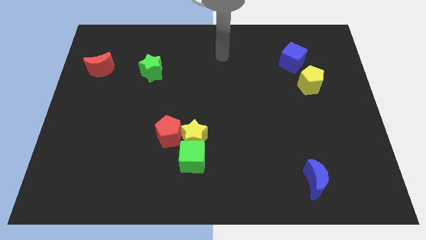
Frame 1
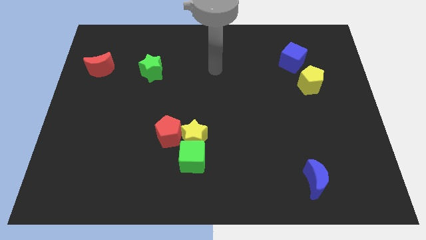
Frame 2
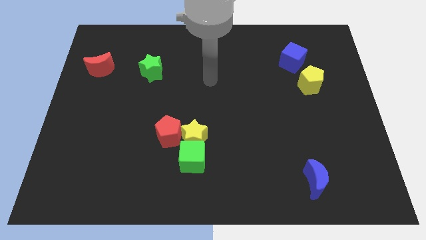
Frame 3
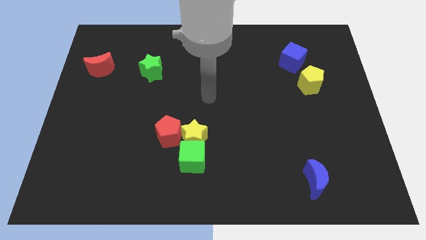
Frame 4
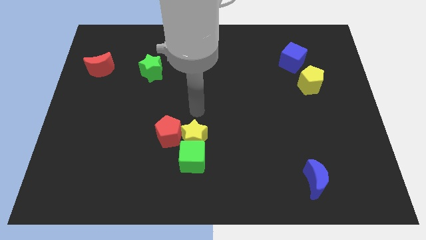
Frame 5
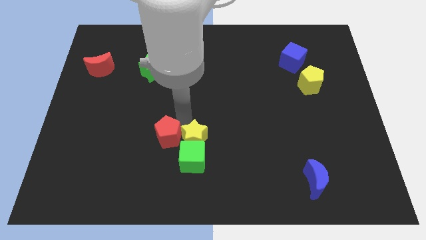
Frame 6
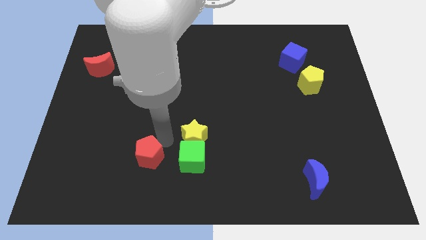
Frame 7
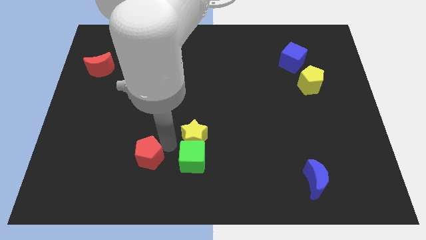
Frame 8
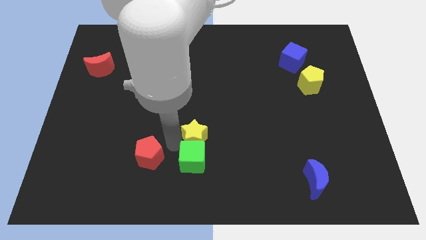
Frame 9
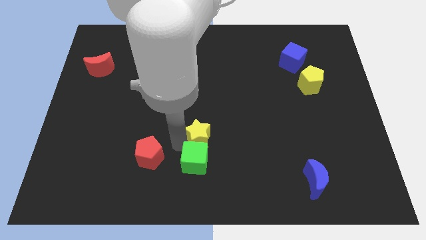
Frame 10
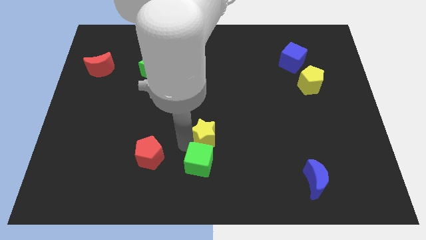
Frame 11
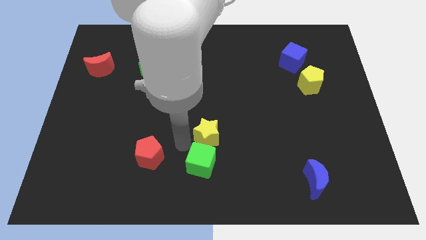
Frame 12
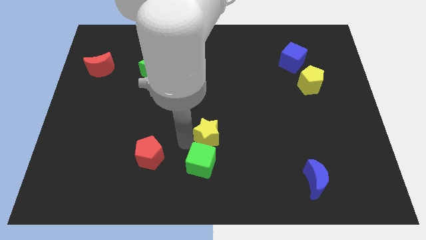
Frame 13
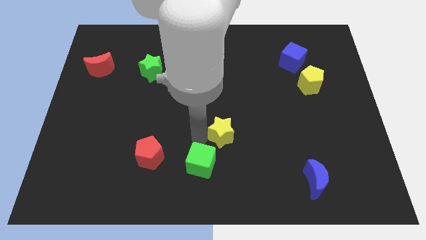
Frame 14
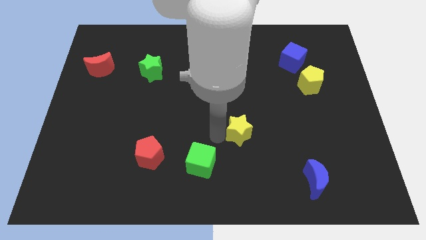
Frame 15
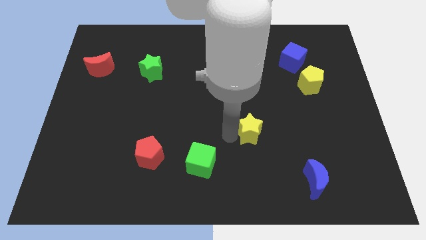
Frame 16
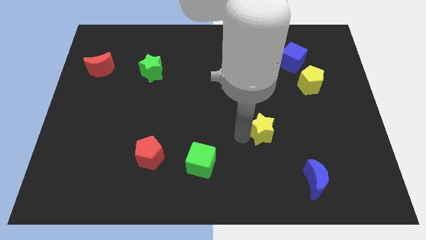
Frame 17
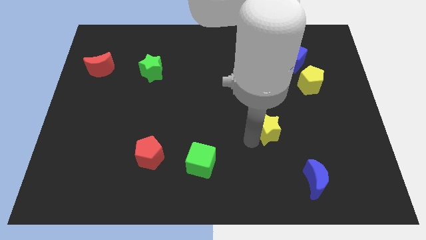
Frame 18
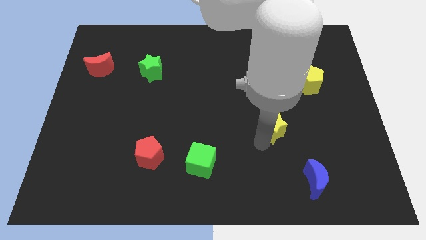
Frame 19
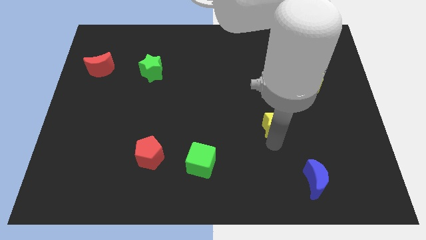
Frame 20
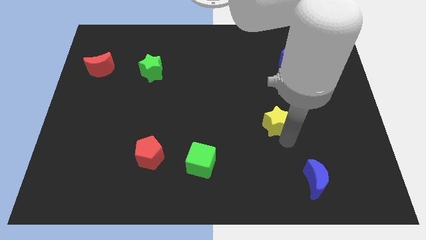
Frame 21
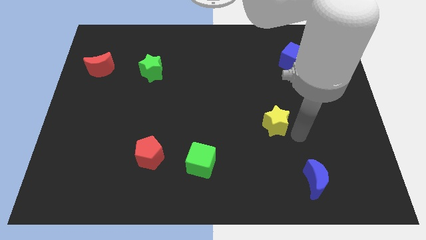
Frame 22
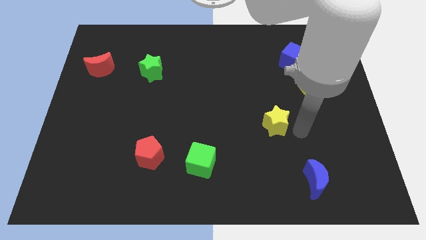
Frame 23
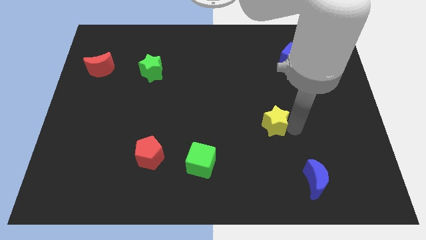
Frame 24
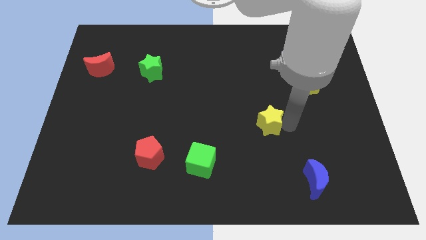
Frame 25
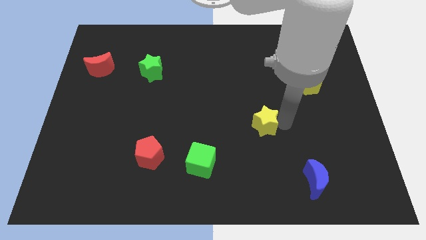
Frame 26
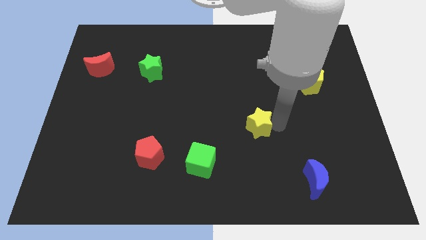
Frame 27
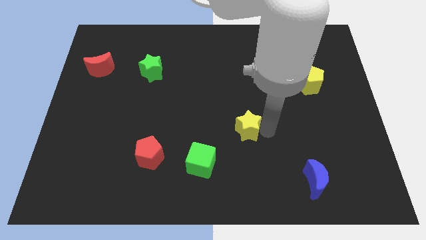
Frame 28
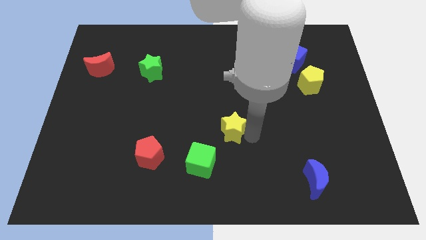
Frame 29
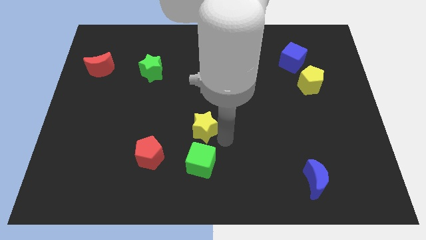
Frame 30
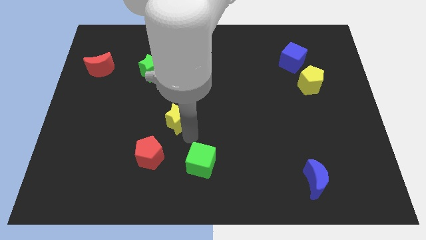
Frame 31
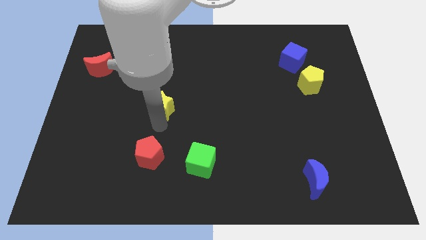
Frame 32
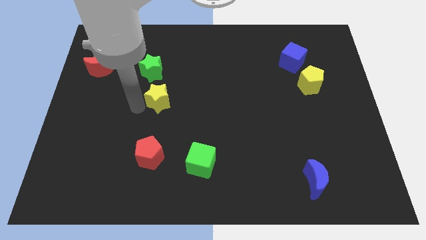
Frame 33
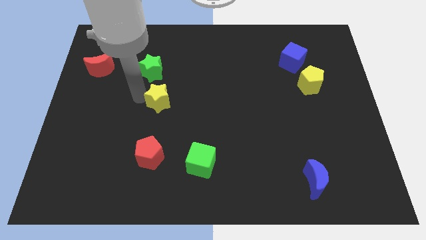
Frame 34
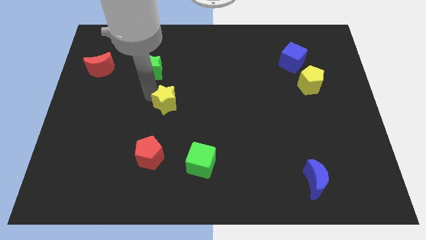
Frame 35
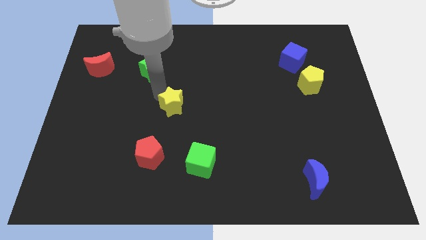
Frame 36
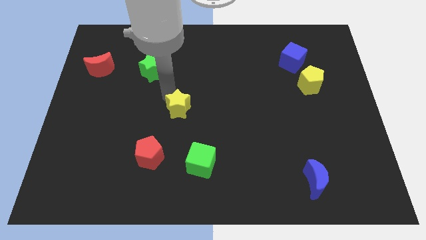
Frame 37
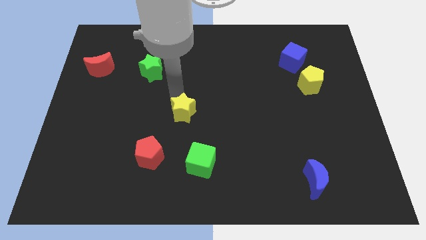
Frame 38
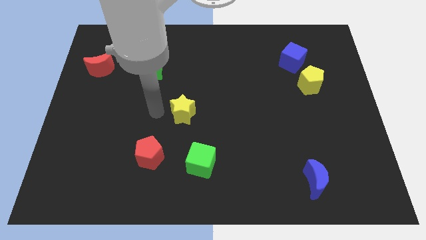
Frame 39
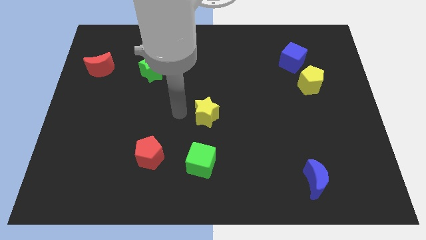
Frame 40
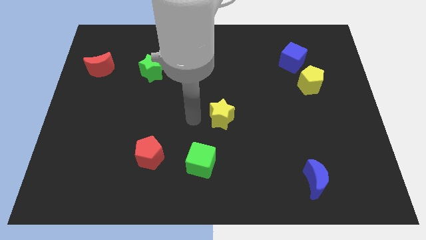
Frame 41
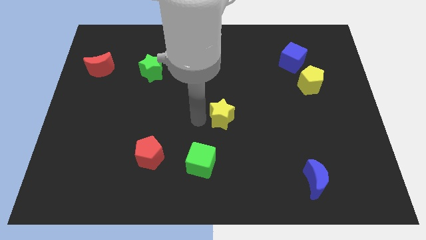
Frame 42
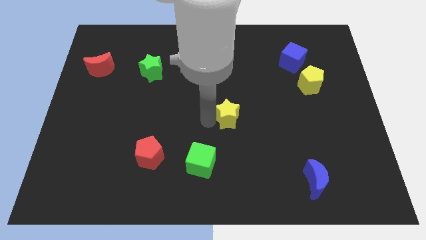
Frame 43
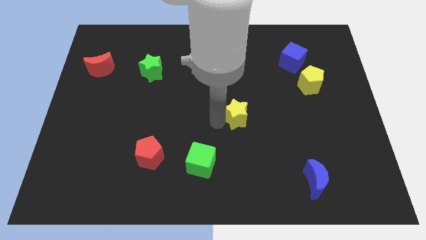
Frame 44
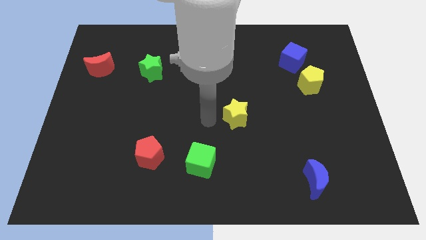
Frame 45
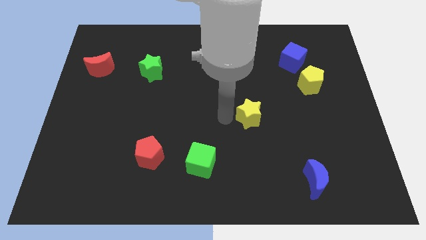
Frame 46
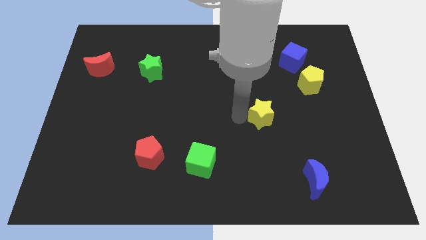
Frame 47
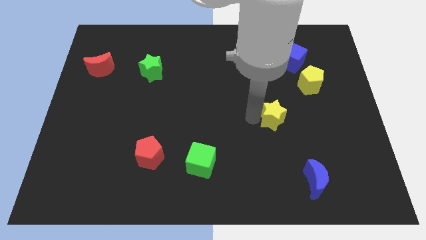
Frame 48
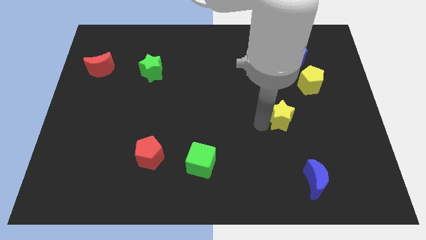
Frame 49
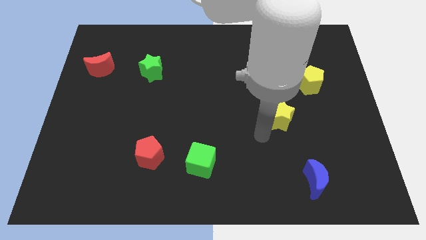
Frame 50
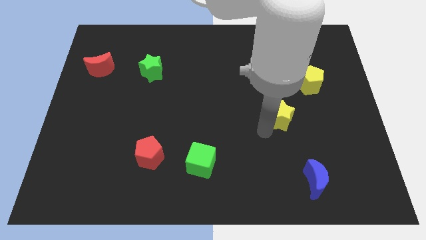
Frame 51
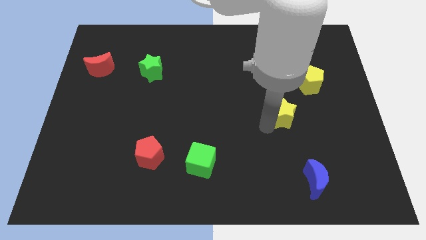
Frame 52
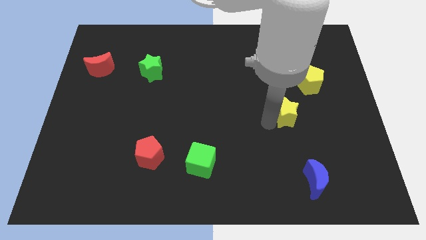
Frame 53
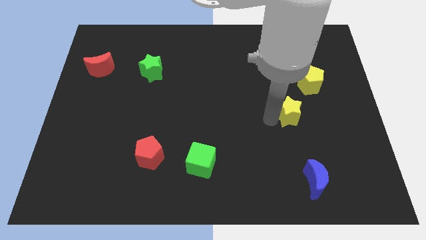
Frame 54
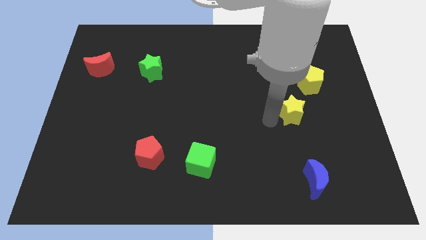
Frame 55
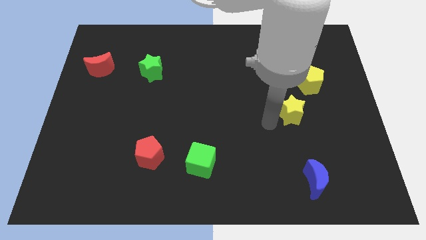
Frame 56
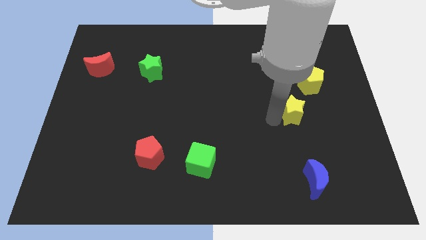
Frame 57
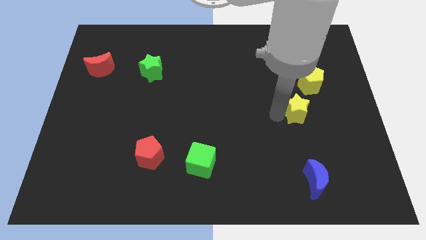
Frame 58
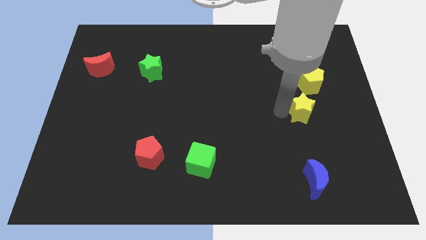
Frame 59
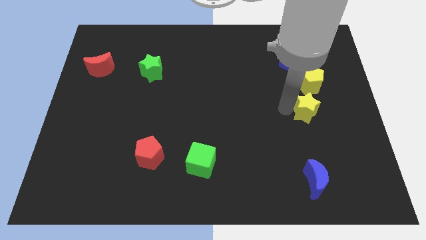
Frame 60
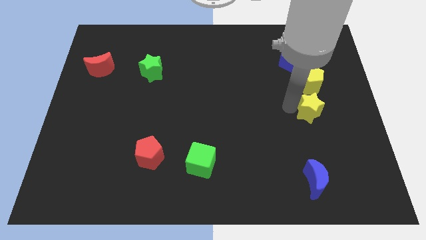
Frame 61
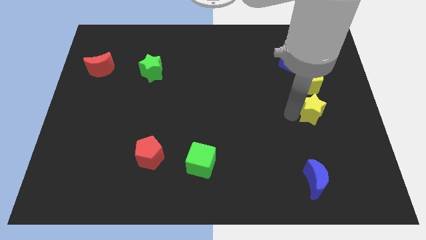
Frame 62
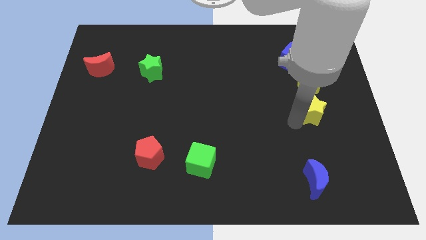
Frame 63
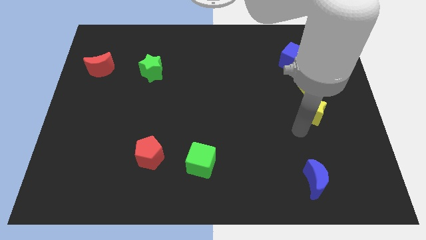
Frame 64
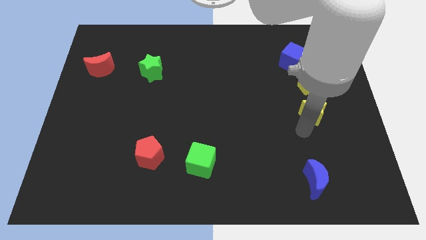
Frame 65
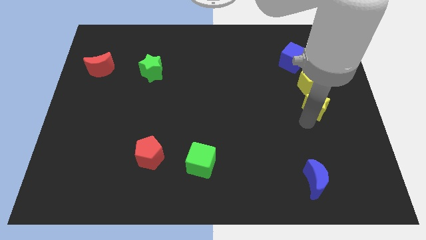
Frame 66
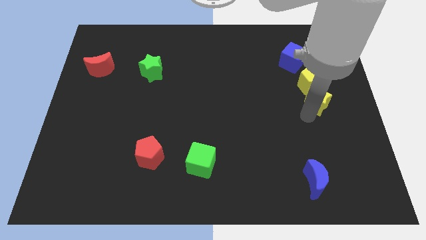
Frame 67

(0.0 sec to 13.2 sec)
push the yellow star to the bottom right of the yellow pentagon

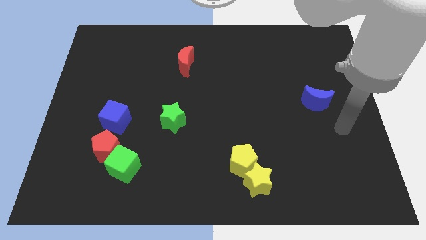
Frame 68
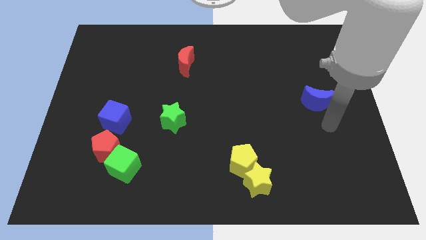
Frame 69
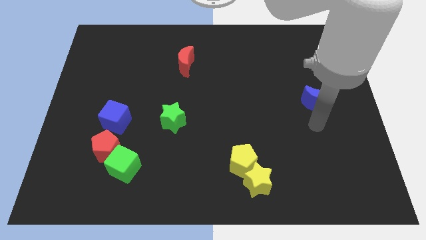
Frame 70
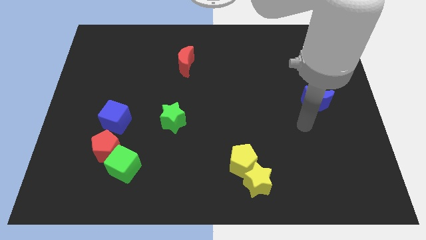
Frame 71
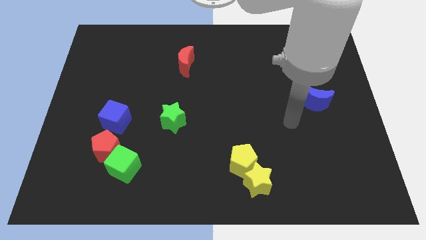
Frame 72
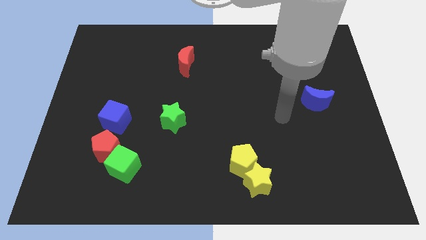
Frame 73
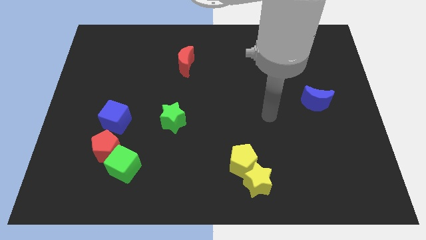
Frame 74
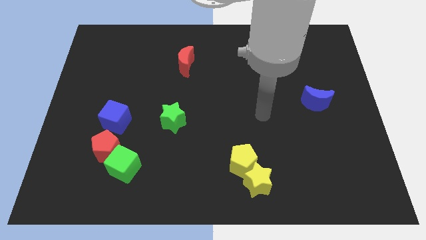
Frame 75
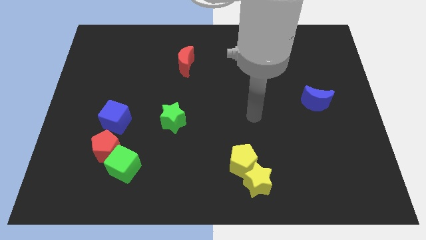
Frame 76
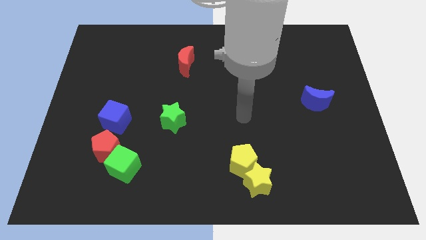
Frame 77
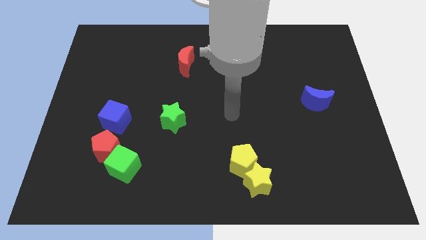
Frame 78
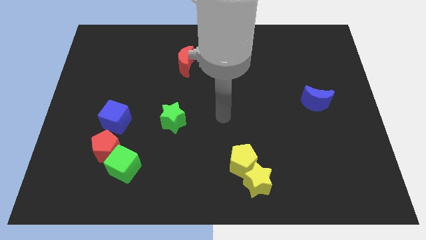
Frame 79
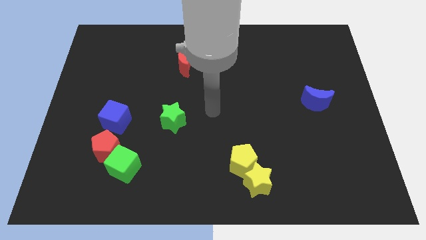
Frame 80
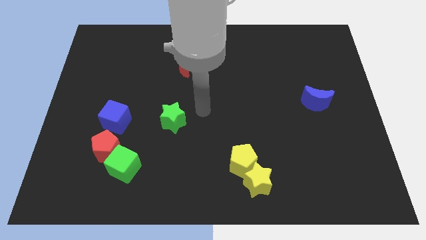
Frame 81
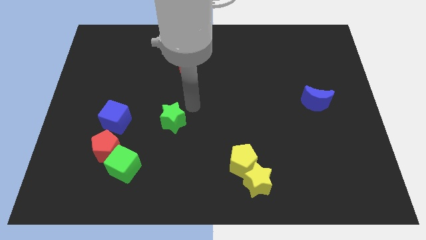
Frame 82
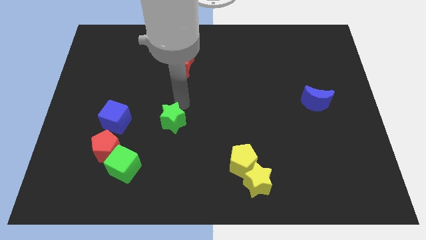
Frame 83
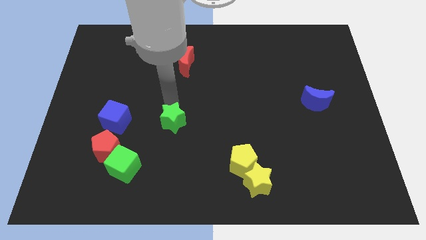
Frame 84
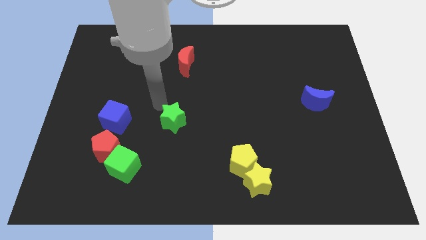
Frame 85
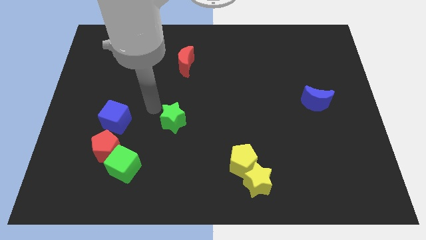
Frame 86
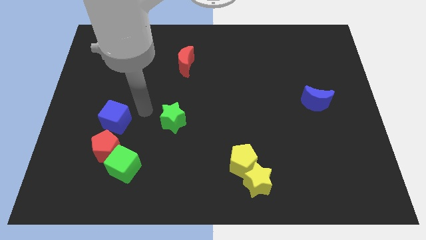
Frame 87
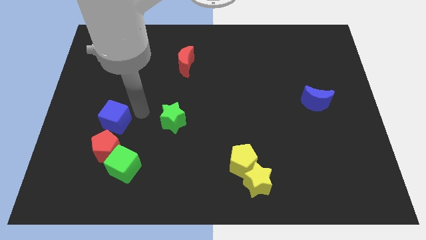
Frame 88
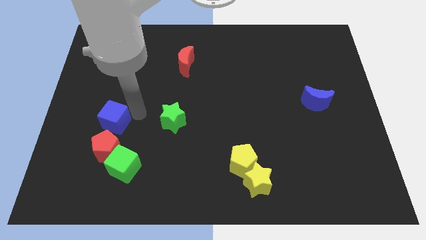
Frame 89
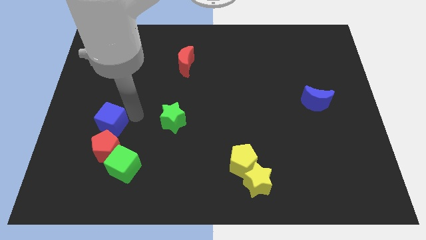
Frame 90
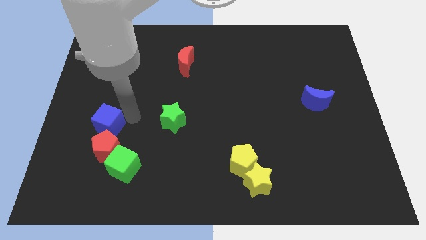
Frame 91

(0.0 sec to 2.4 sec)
move the blue cube to the top left of the red pentagon
